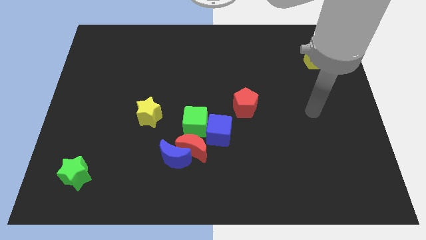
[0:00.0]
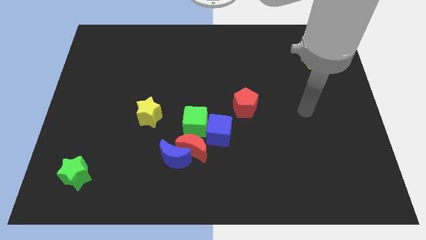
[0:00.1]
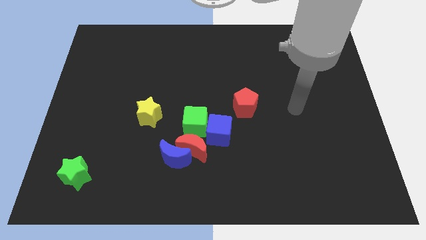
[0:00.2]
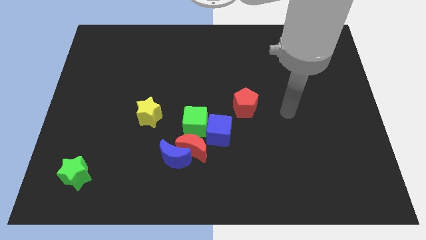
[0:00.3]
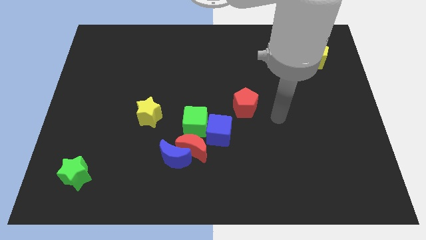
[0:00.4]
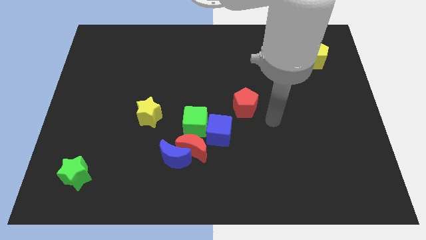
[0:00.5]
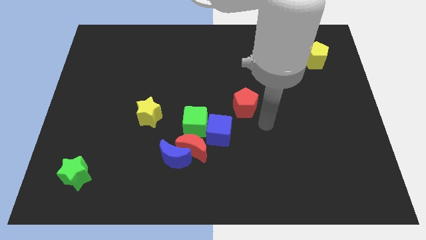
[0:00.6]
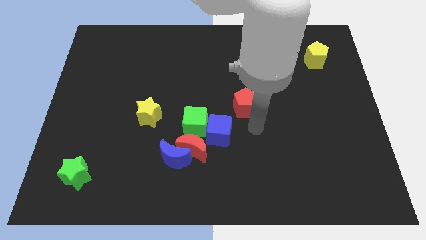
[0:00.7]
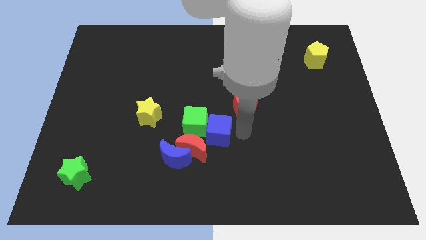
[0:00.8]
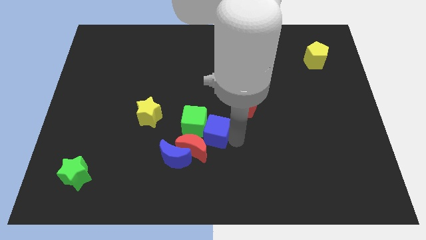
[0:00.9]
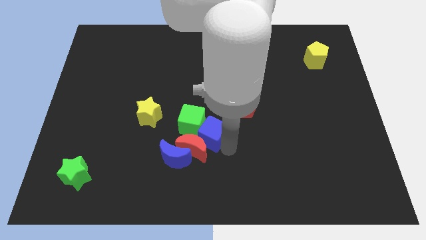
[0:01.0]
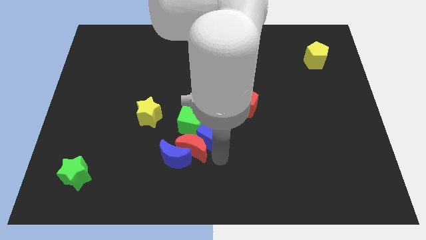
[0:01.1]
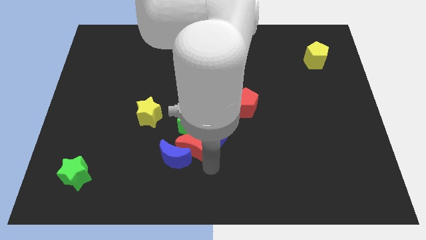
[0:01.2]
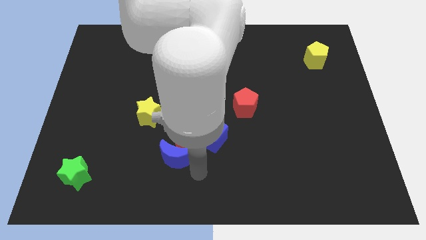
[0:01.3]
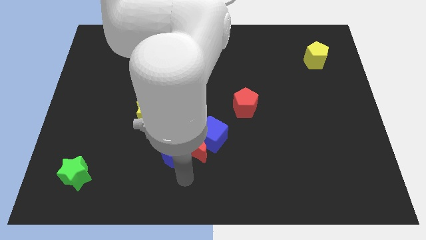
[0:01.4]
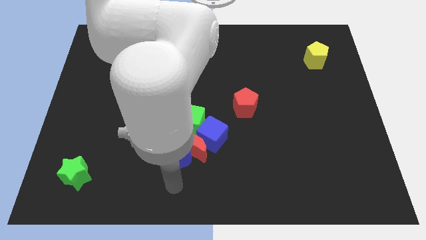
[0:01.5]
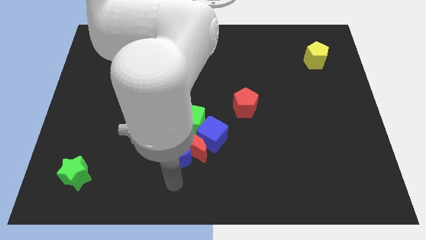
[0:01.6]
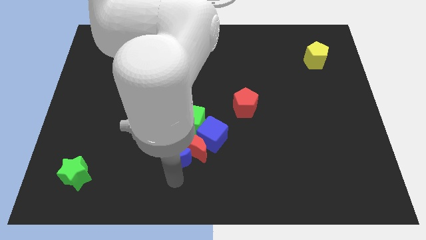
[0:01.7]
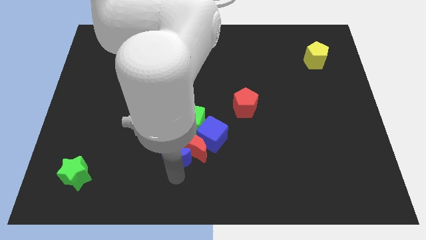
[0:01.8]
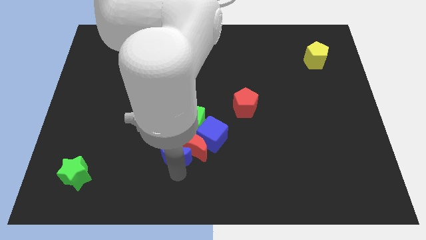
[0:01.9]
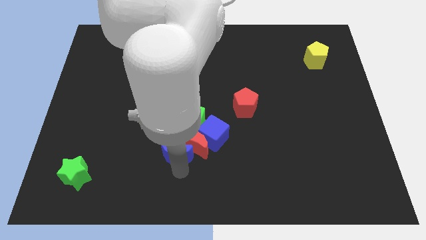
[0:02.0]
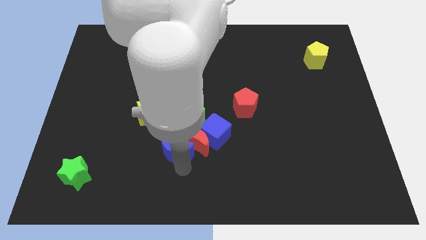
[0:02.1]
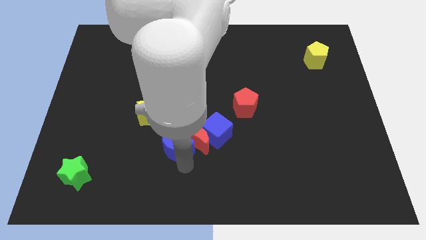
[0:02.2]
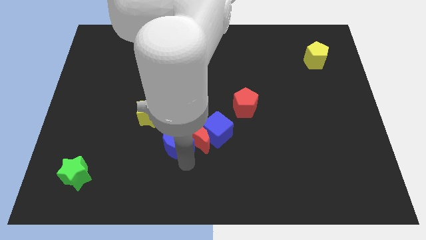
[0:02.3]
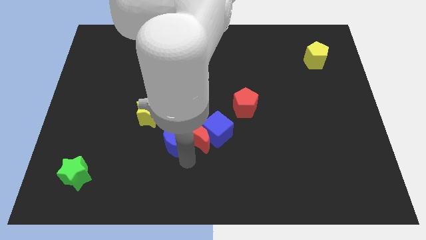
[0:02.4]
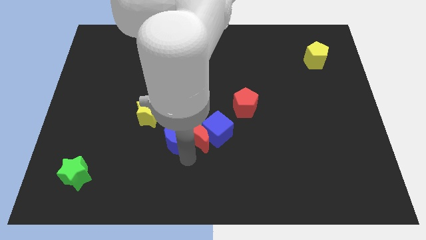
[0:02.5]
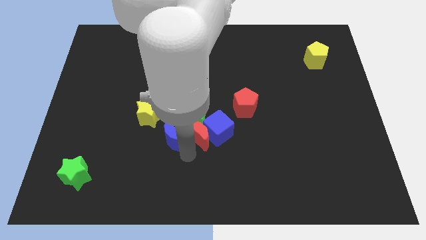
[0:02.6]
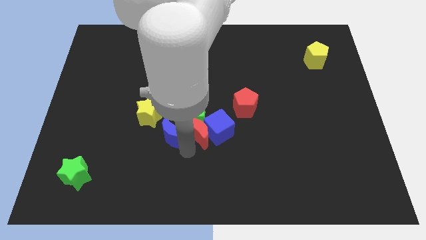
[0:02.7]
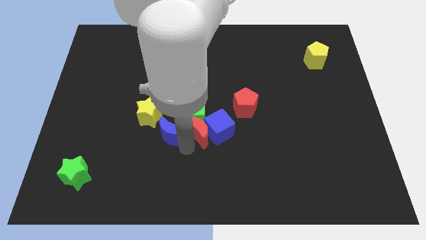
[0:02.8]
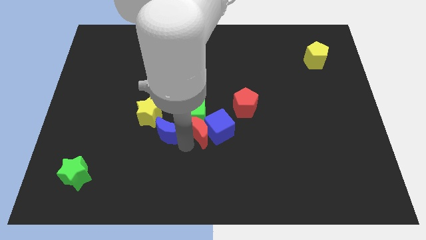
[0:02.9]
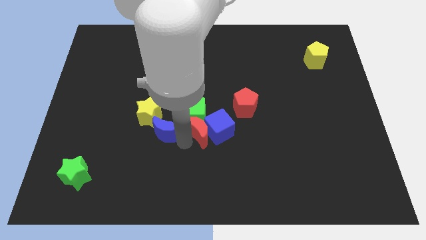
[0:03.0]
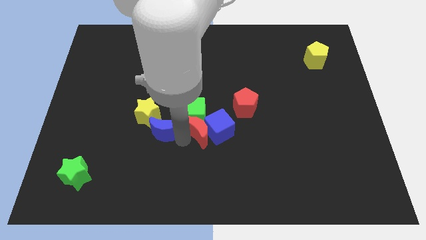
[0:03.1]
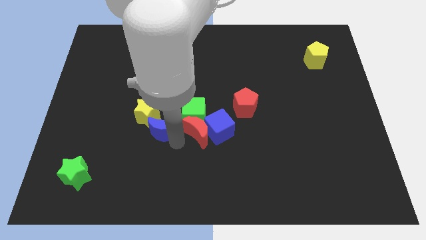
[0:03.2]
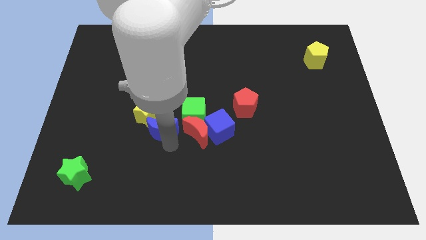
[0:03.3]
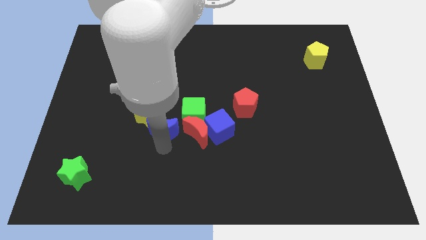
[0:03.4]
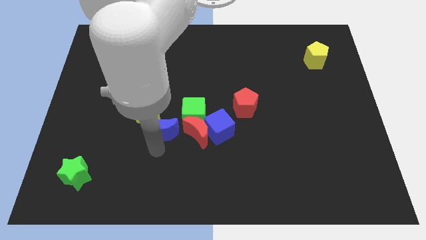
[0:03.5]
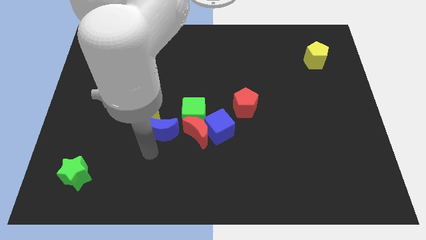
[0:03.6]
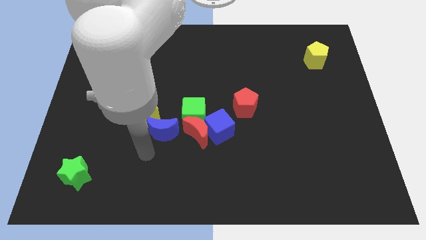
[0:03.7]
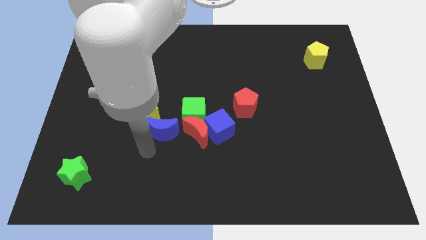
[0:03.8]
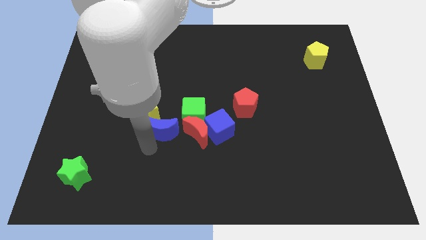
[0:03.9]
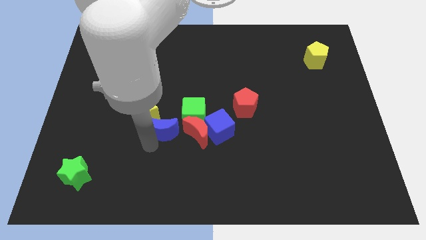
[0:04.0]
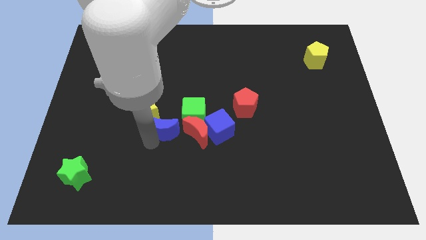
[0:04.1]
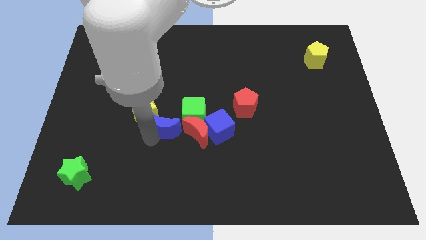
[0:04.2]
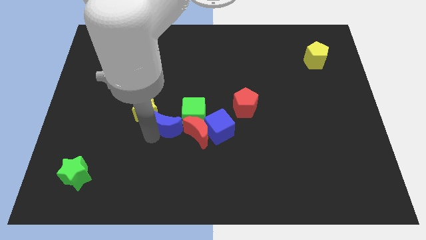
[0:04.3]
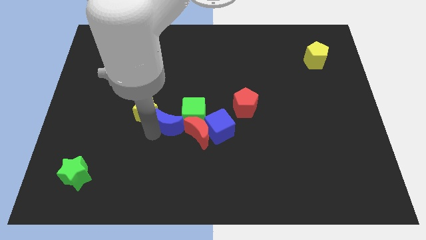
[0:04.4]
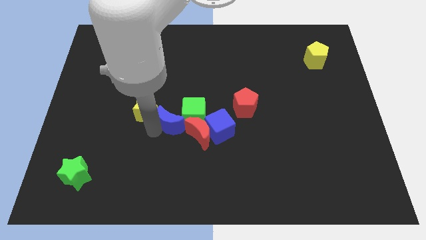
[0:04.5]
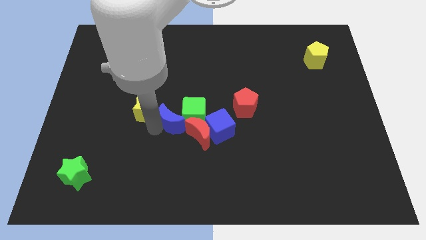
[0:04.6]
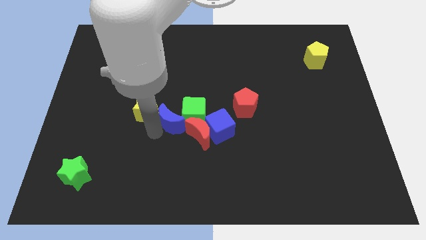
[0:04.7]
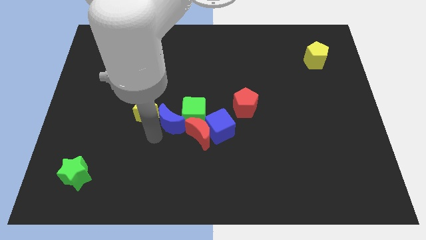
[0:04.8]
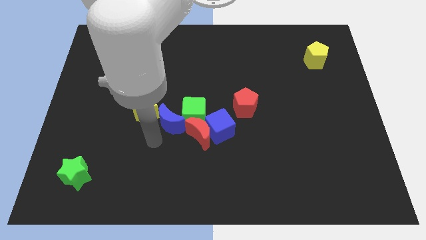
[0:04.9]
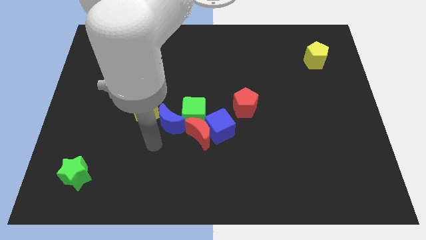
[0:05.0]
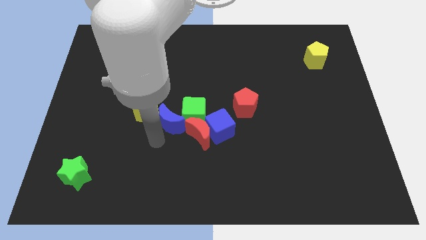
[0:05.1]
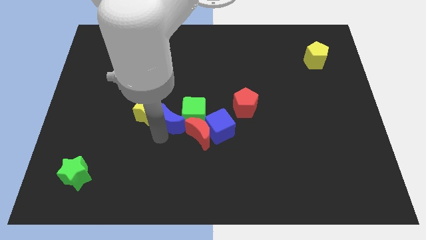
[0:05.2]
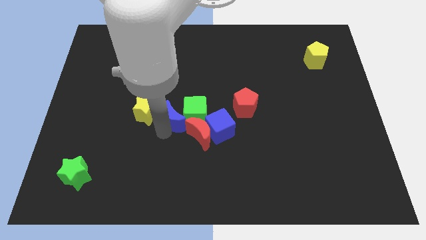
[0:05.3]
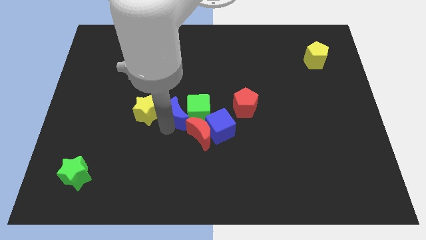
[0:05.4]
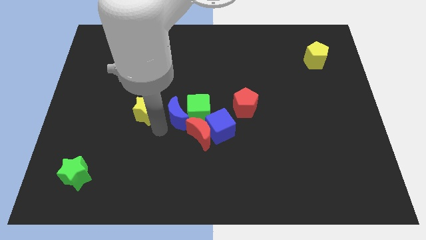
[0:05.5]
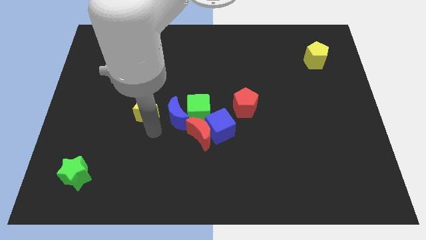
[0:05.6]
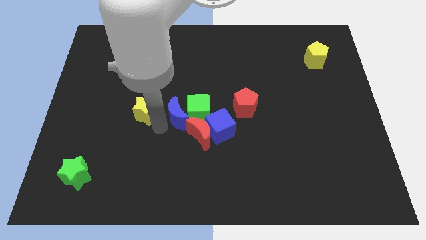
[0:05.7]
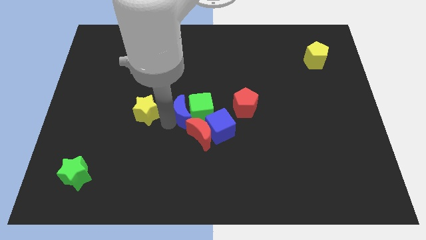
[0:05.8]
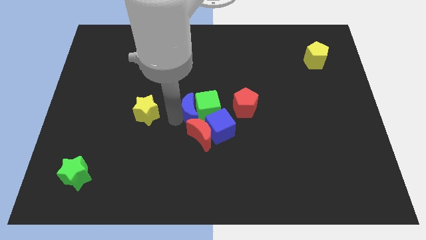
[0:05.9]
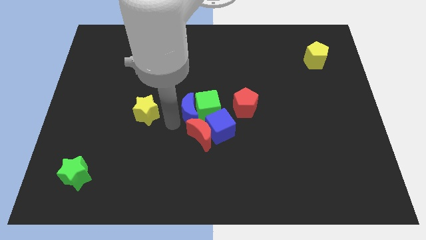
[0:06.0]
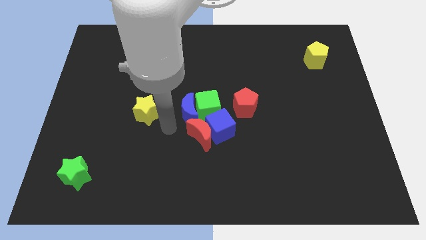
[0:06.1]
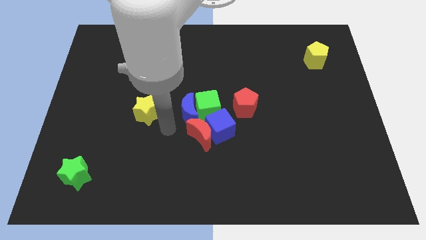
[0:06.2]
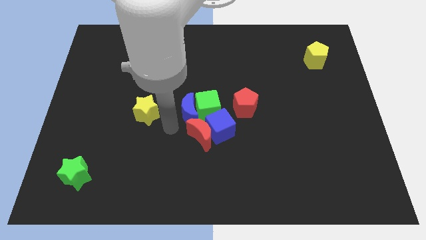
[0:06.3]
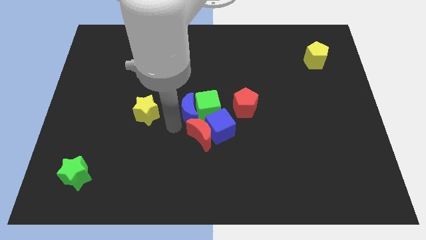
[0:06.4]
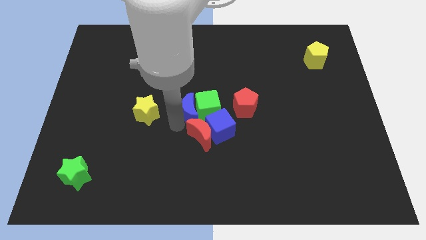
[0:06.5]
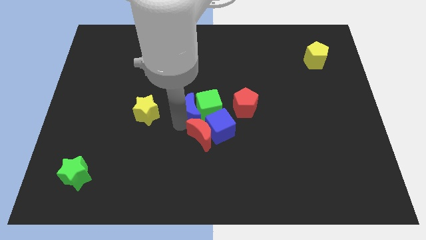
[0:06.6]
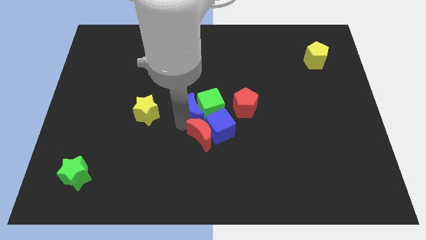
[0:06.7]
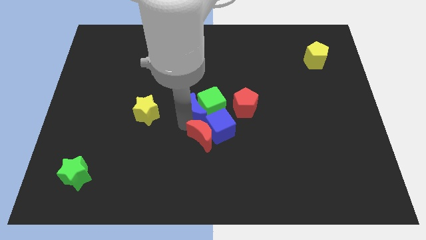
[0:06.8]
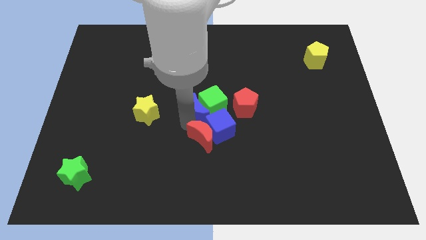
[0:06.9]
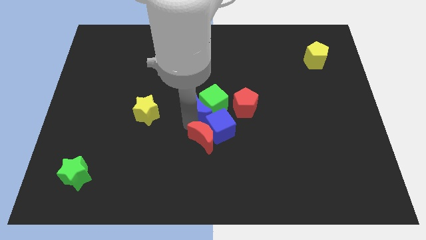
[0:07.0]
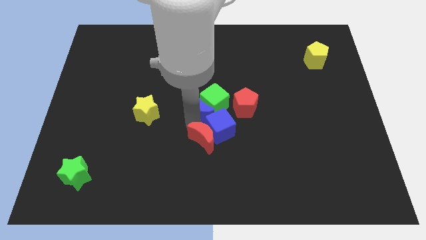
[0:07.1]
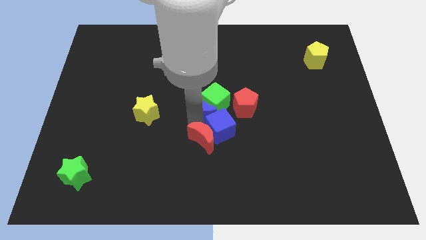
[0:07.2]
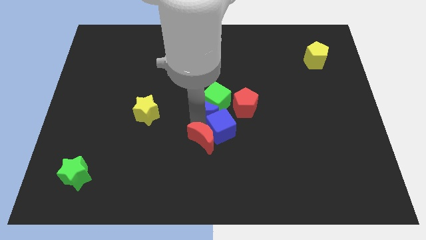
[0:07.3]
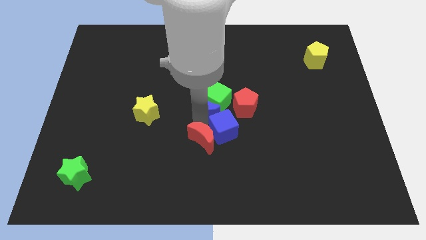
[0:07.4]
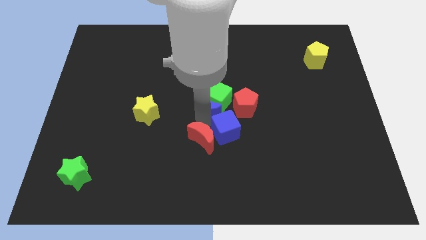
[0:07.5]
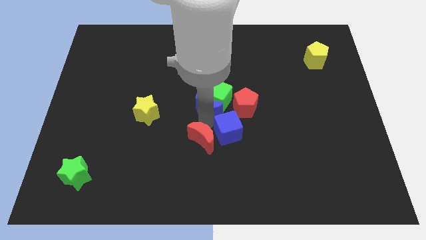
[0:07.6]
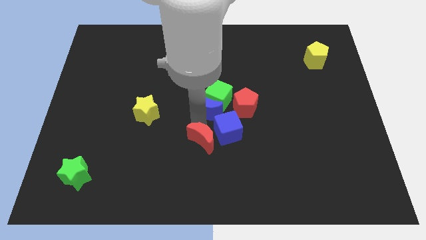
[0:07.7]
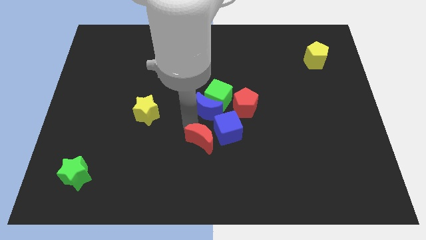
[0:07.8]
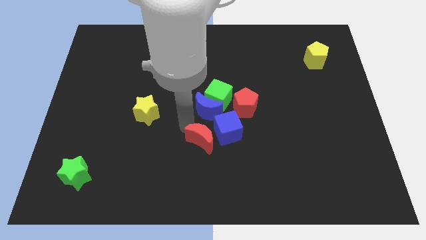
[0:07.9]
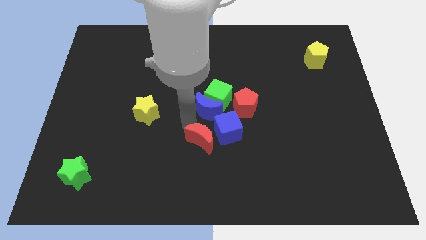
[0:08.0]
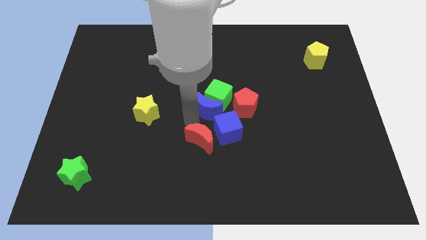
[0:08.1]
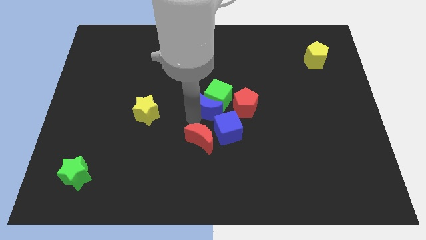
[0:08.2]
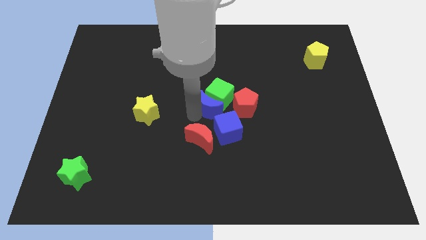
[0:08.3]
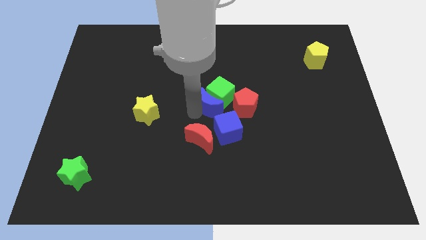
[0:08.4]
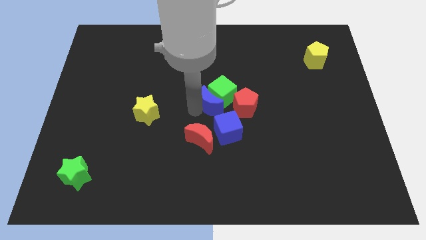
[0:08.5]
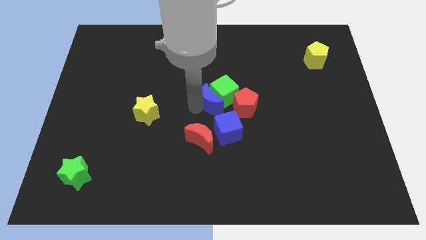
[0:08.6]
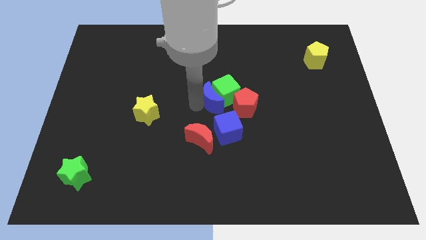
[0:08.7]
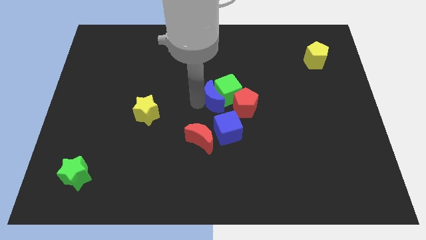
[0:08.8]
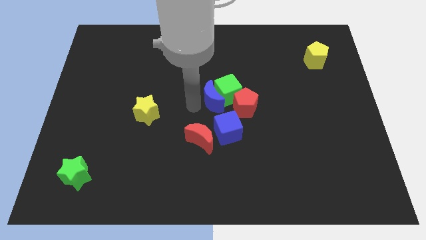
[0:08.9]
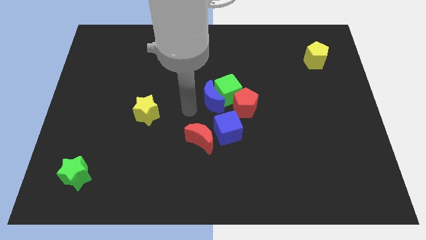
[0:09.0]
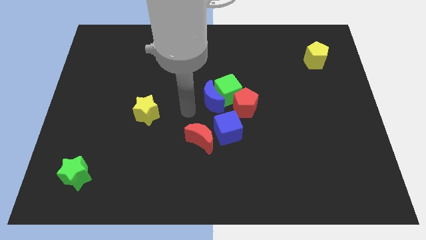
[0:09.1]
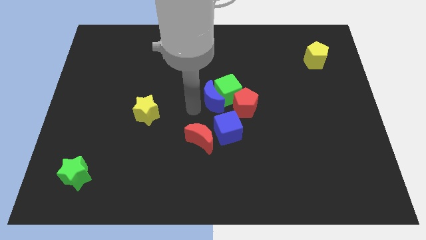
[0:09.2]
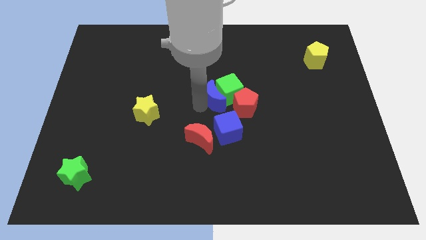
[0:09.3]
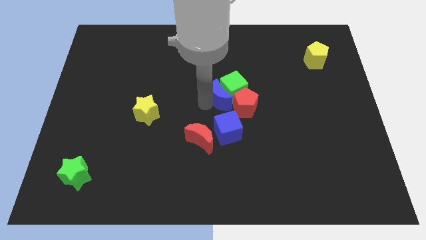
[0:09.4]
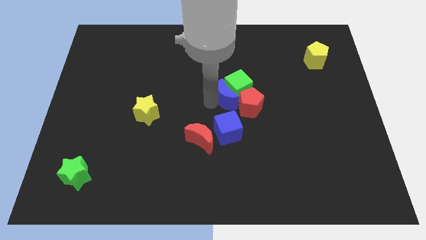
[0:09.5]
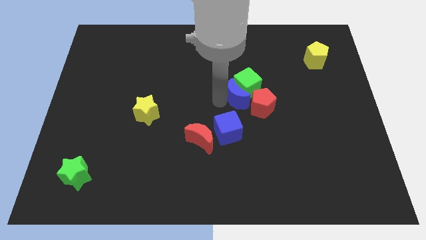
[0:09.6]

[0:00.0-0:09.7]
push the blue moon up and then right
